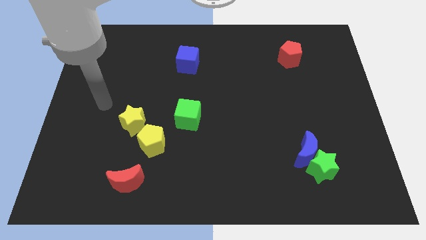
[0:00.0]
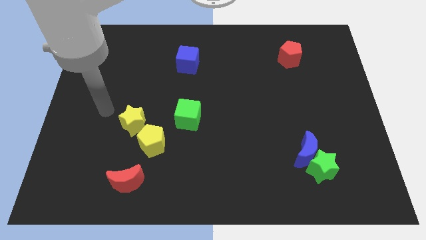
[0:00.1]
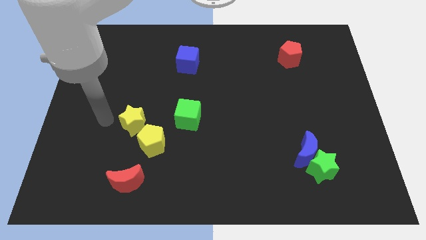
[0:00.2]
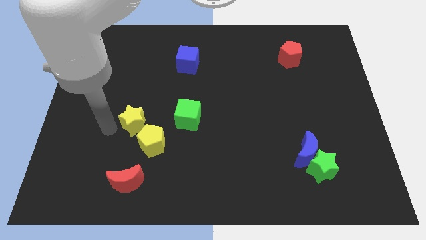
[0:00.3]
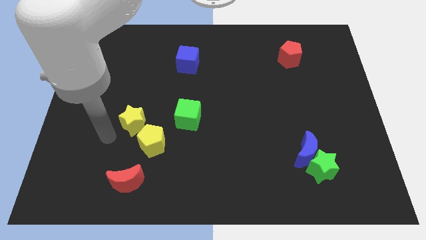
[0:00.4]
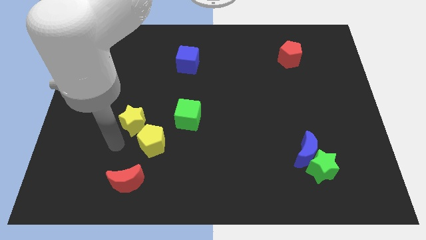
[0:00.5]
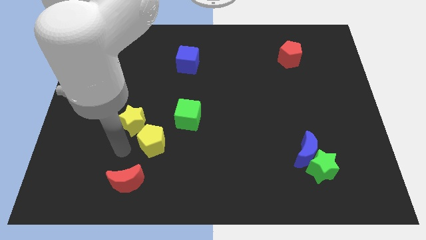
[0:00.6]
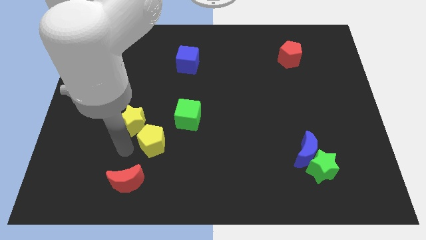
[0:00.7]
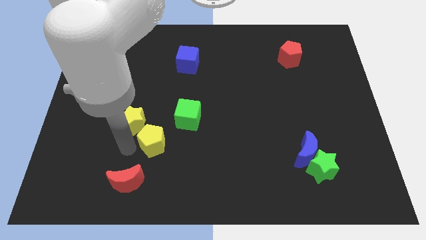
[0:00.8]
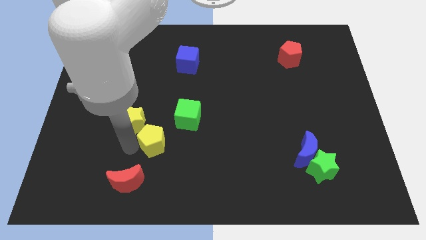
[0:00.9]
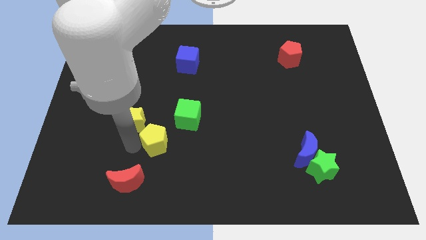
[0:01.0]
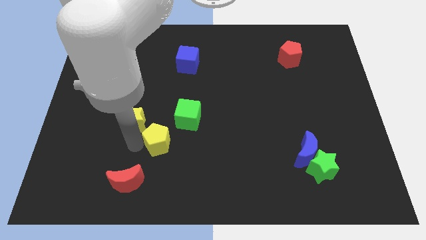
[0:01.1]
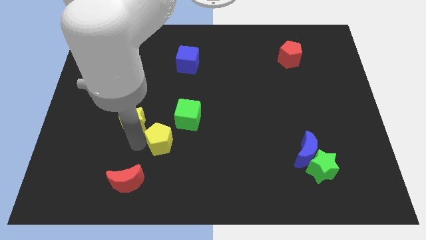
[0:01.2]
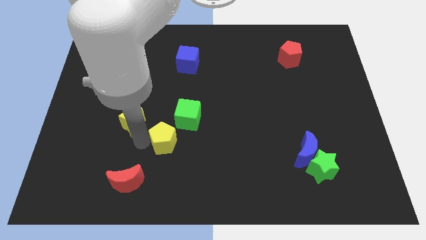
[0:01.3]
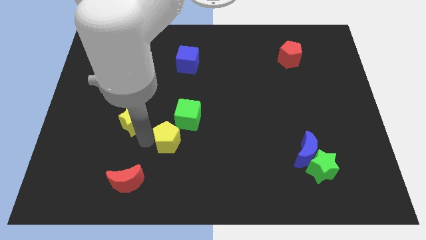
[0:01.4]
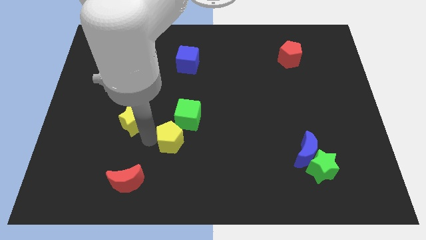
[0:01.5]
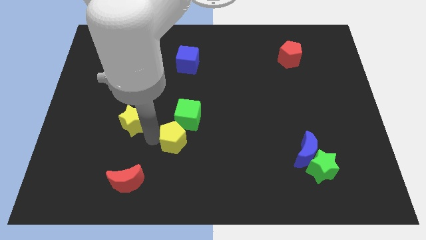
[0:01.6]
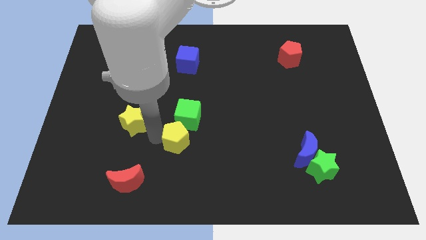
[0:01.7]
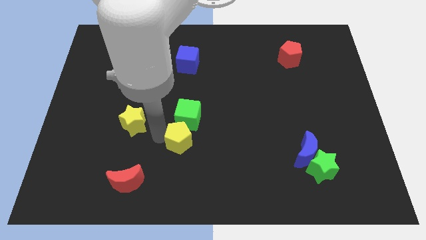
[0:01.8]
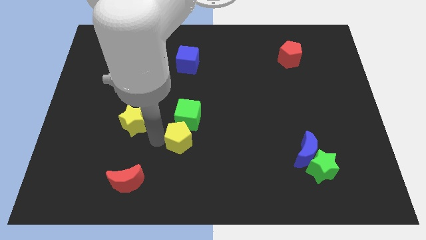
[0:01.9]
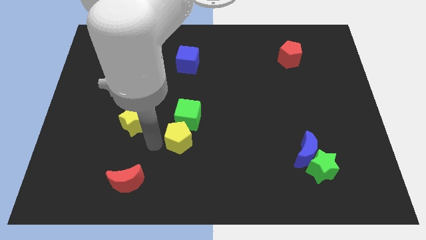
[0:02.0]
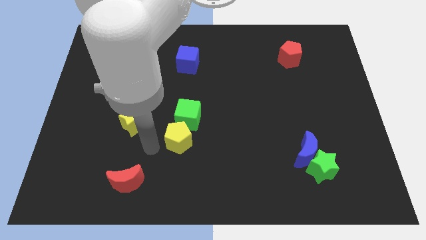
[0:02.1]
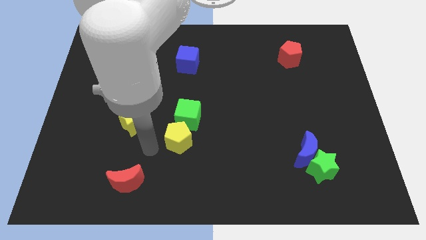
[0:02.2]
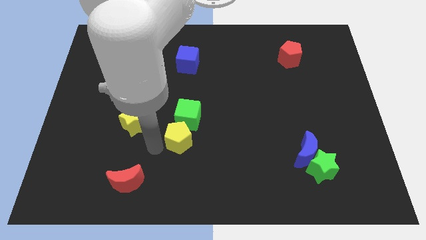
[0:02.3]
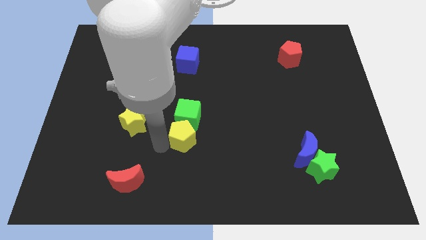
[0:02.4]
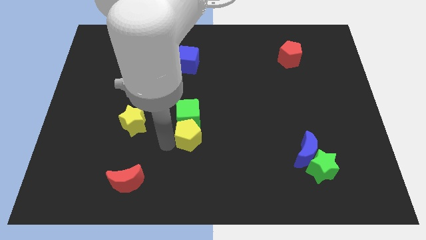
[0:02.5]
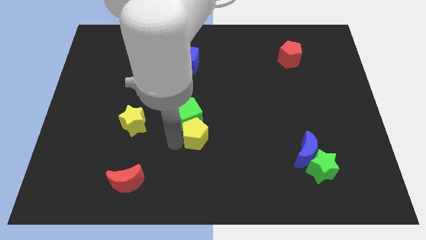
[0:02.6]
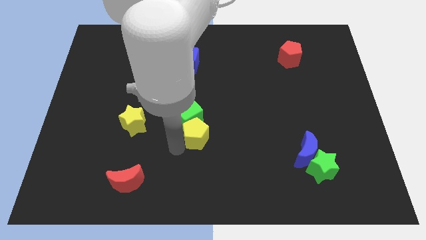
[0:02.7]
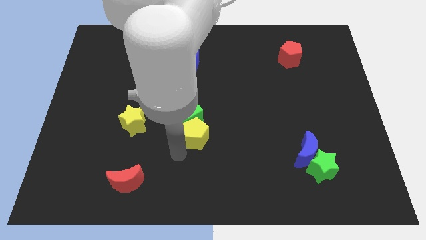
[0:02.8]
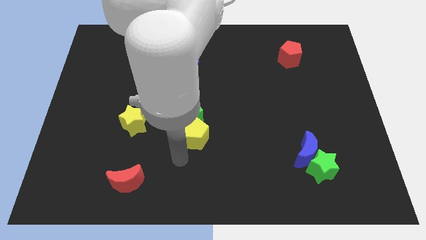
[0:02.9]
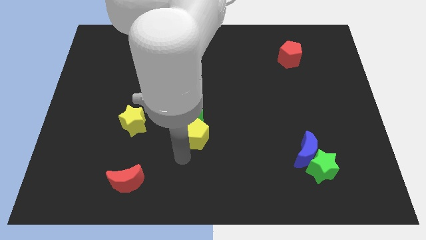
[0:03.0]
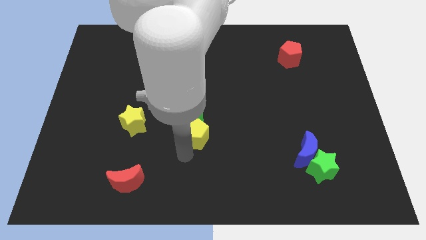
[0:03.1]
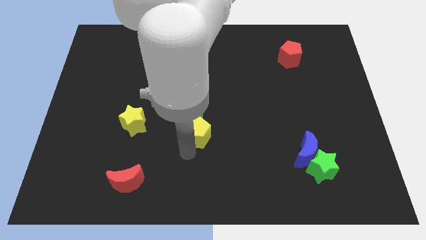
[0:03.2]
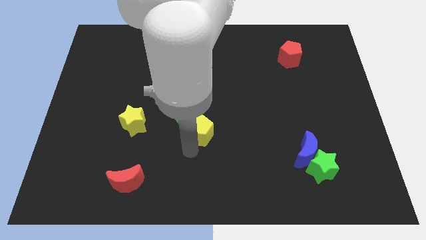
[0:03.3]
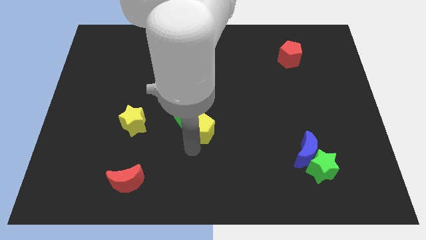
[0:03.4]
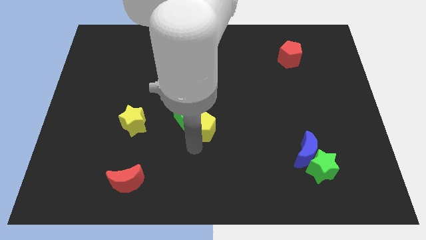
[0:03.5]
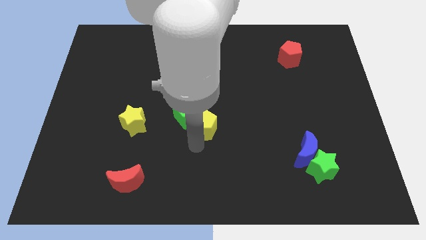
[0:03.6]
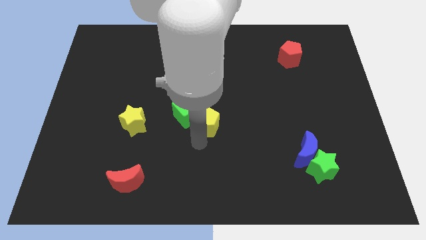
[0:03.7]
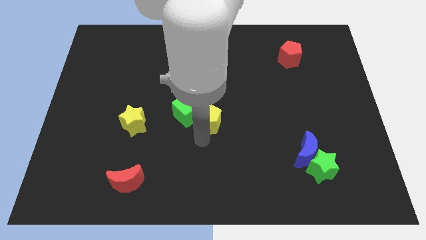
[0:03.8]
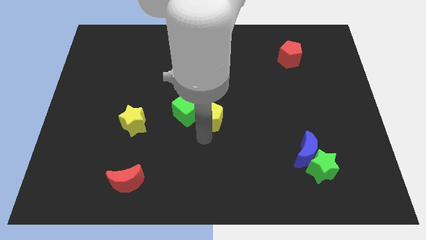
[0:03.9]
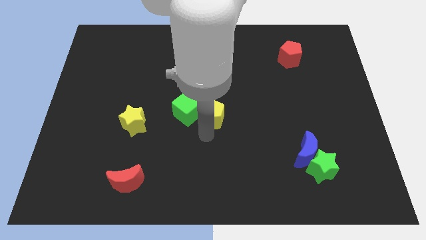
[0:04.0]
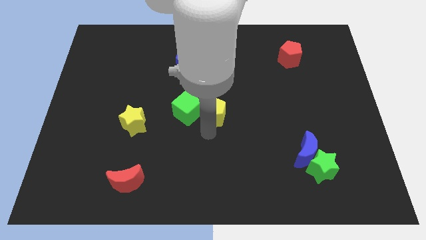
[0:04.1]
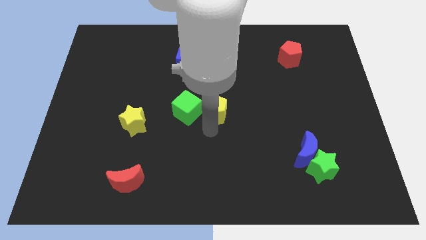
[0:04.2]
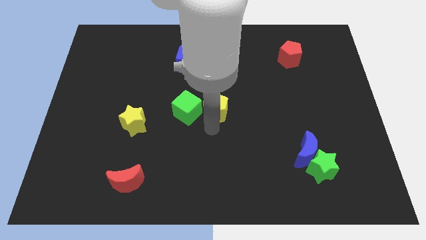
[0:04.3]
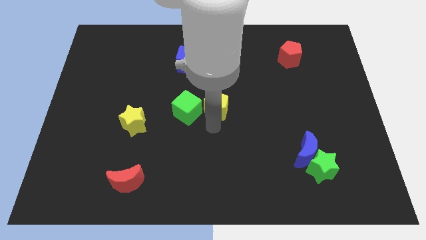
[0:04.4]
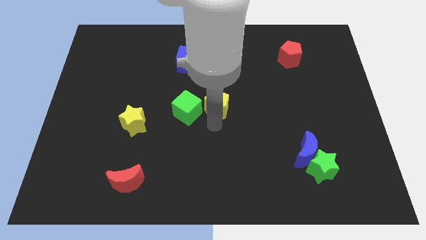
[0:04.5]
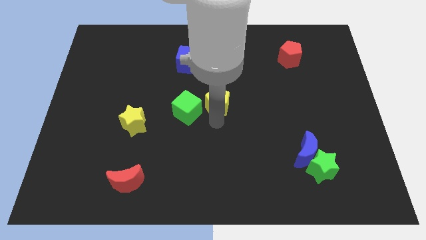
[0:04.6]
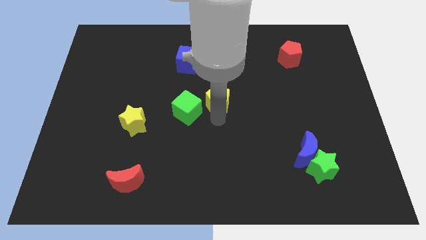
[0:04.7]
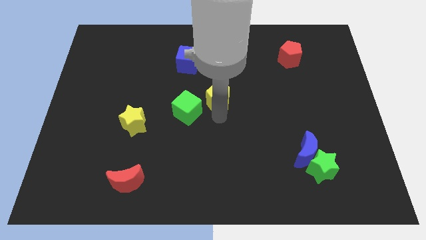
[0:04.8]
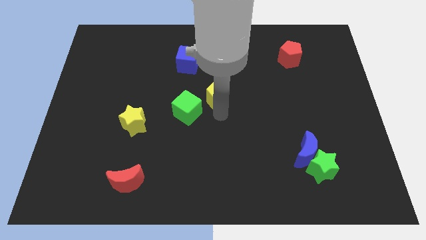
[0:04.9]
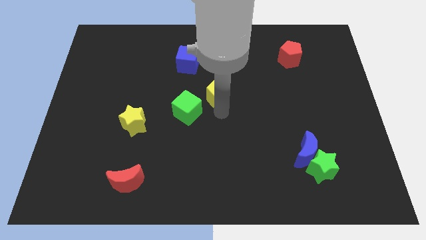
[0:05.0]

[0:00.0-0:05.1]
move the yellow pentagon up and right diagonally

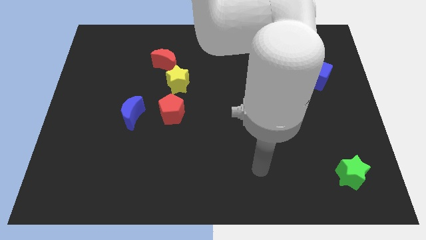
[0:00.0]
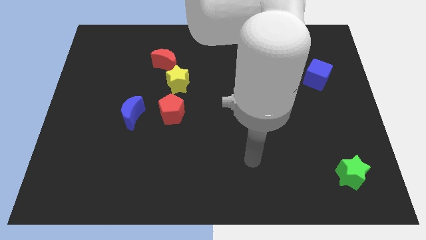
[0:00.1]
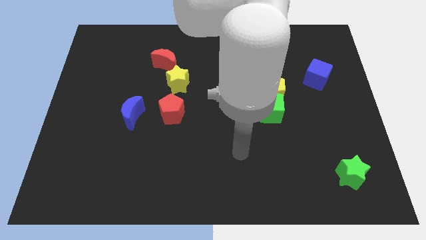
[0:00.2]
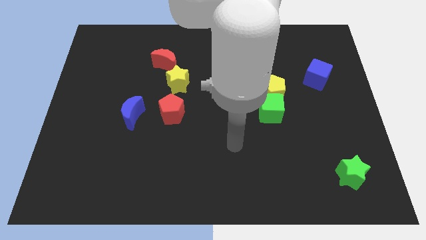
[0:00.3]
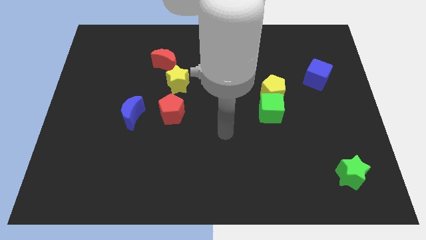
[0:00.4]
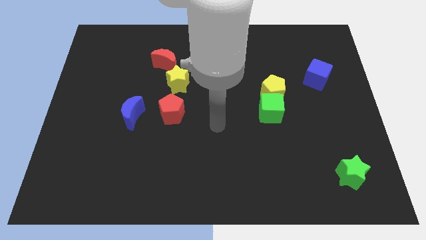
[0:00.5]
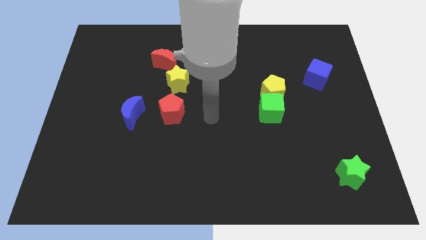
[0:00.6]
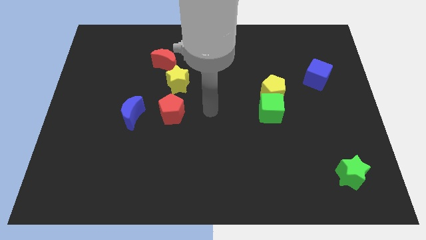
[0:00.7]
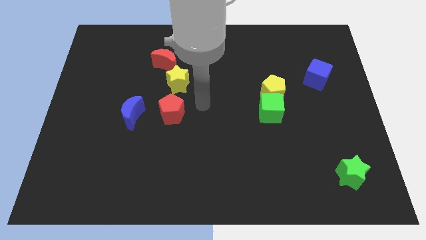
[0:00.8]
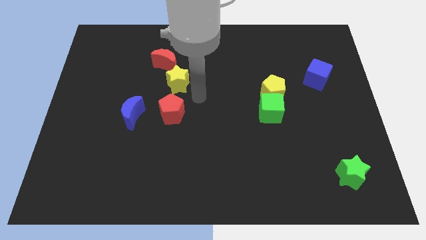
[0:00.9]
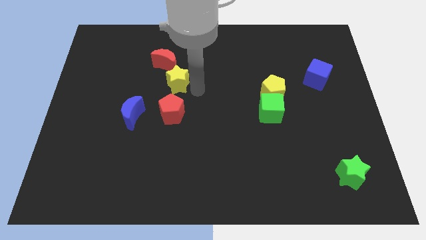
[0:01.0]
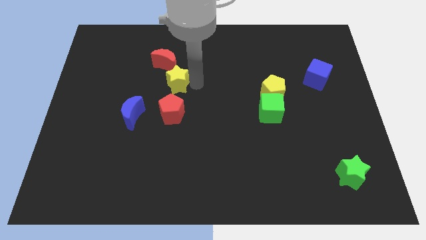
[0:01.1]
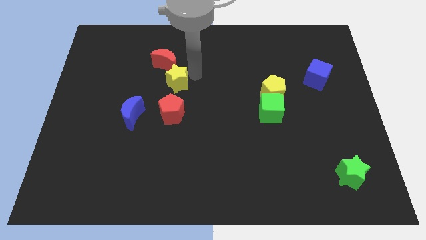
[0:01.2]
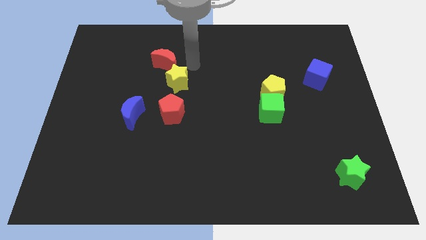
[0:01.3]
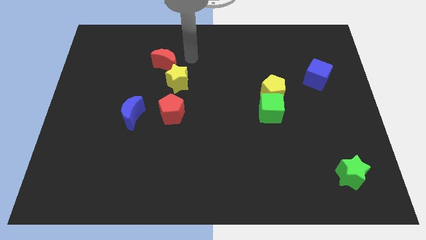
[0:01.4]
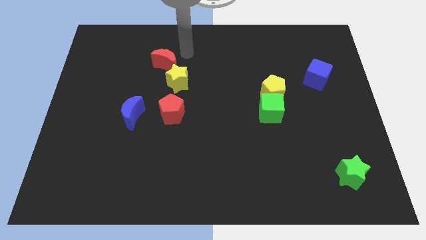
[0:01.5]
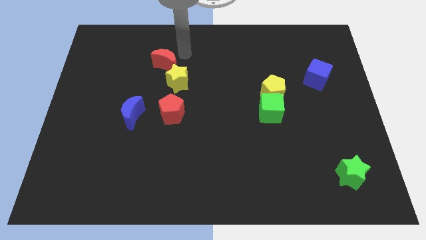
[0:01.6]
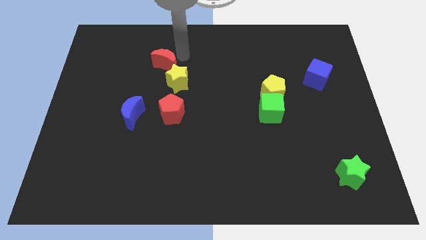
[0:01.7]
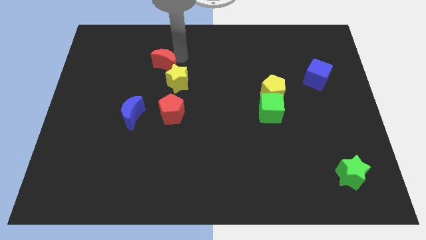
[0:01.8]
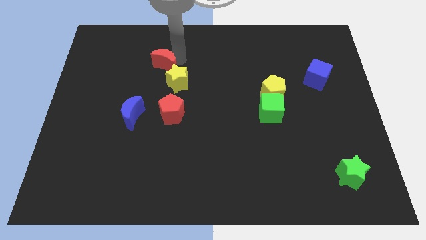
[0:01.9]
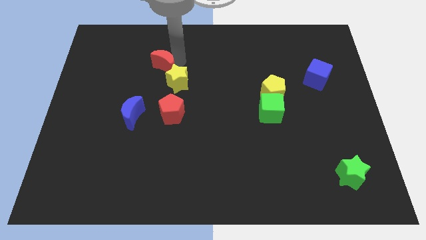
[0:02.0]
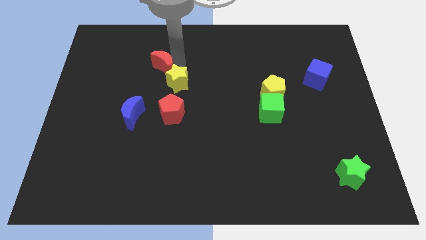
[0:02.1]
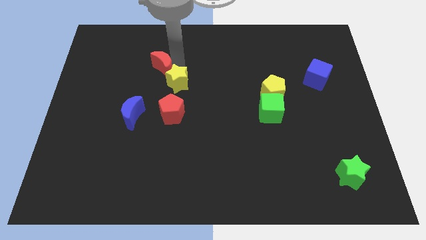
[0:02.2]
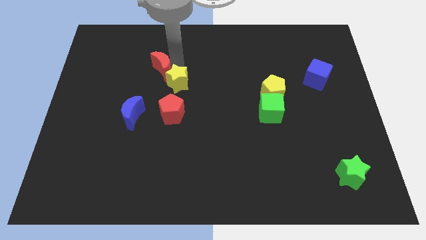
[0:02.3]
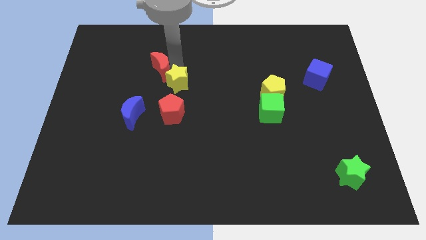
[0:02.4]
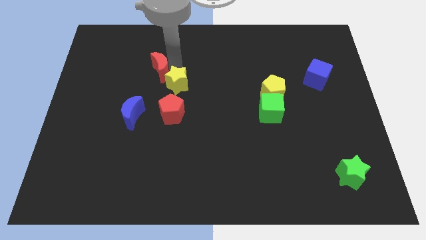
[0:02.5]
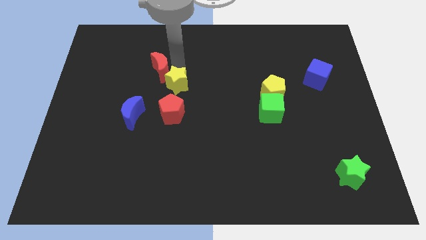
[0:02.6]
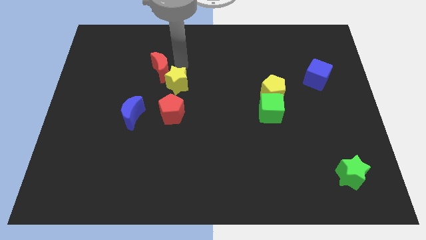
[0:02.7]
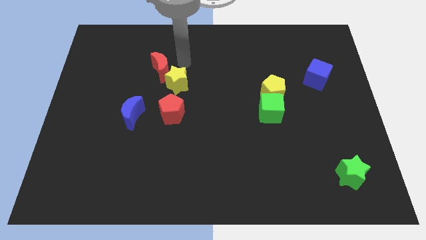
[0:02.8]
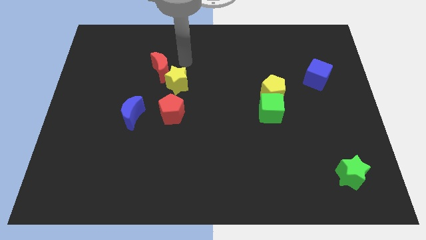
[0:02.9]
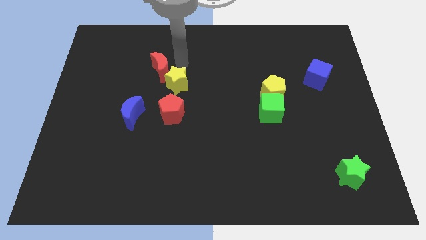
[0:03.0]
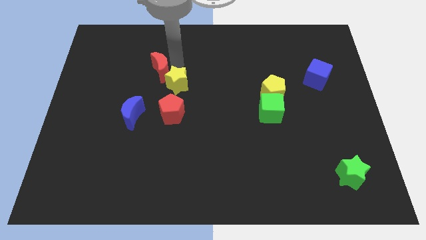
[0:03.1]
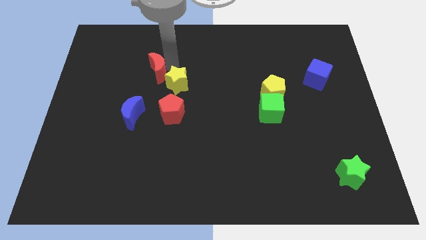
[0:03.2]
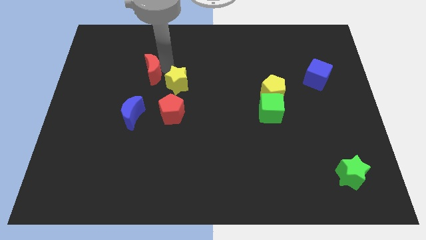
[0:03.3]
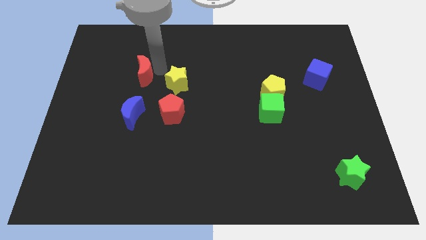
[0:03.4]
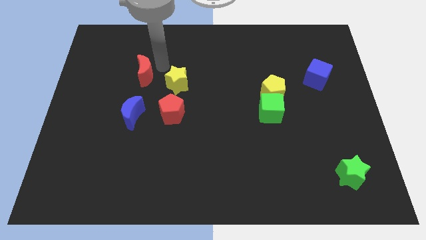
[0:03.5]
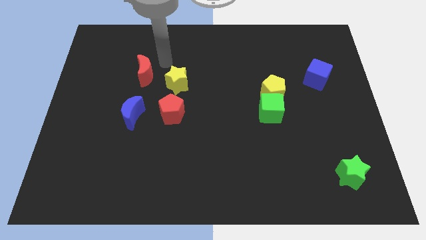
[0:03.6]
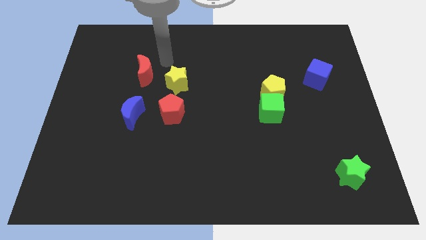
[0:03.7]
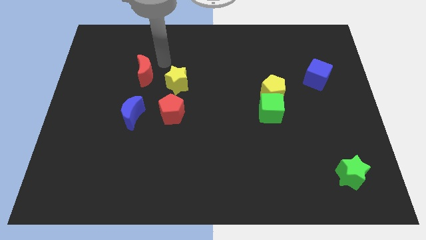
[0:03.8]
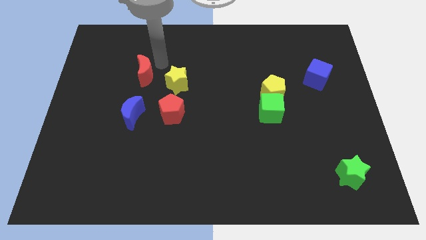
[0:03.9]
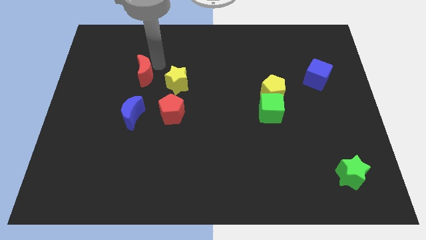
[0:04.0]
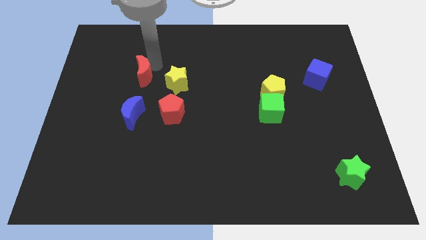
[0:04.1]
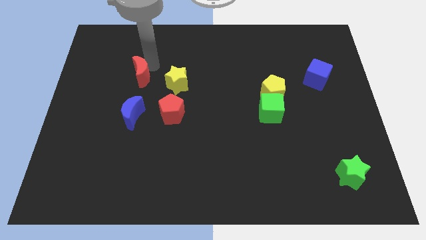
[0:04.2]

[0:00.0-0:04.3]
slide the red moon diagonally downwards and left a bit
